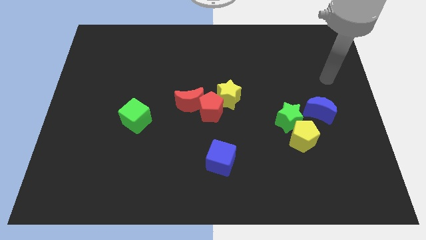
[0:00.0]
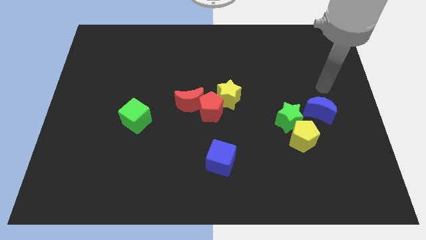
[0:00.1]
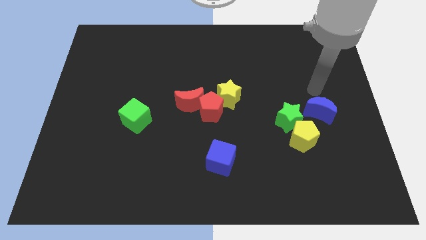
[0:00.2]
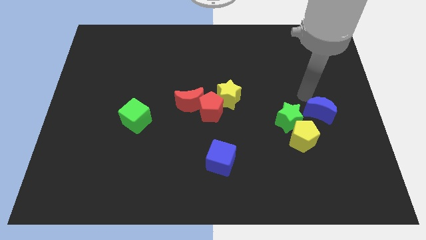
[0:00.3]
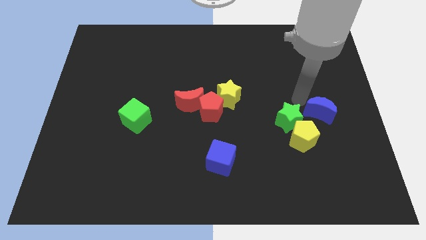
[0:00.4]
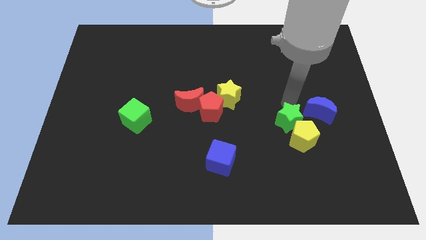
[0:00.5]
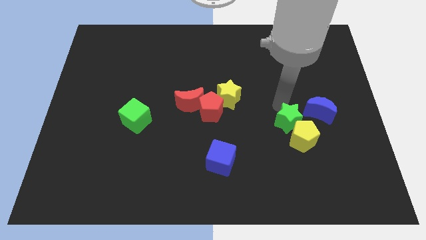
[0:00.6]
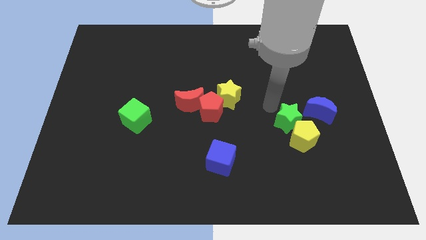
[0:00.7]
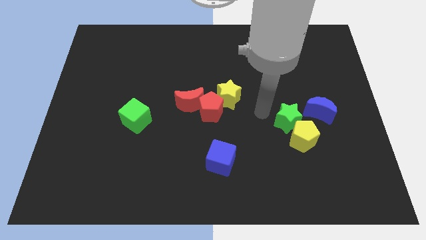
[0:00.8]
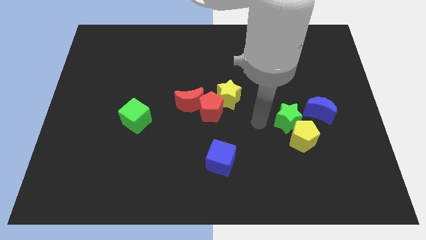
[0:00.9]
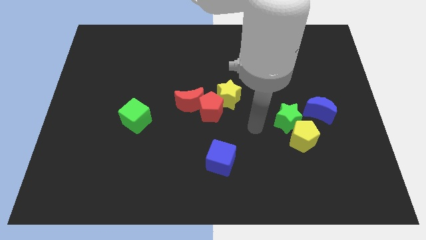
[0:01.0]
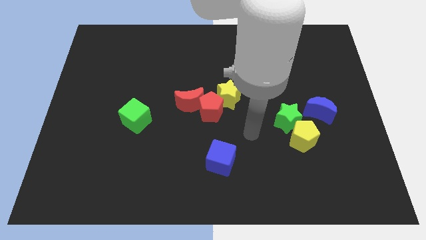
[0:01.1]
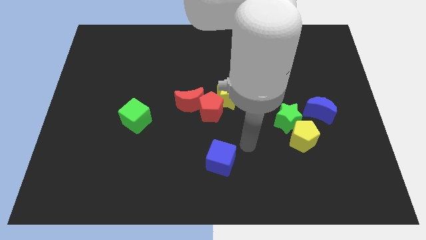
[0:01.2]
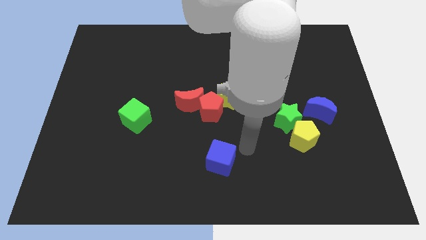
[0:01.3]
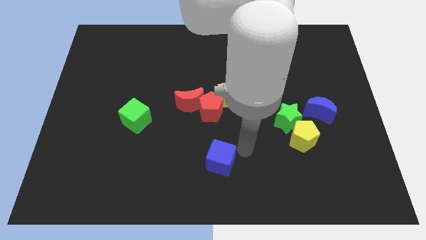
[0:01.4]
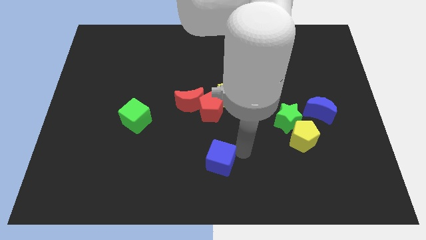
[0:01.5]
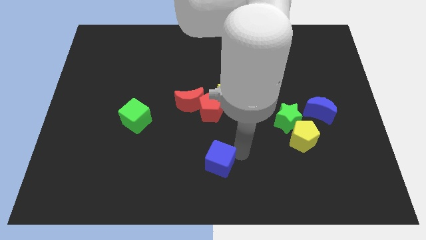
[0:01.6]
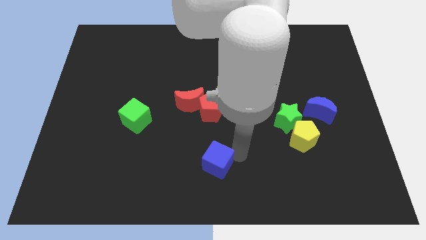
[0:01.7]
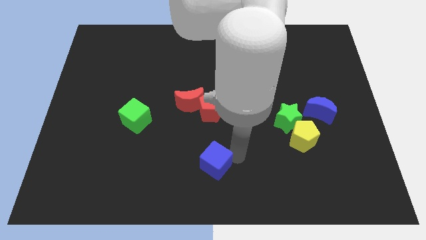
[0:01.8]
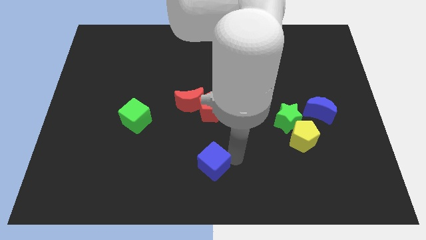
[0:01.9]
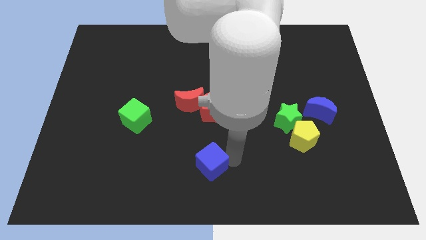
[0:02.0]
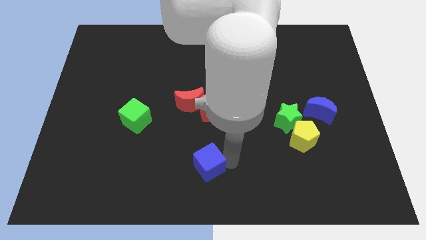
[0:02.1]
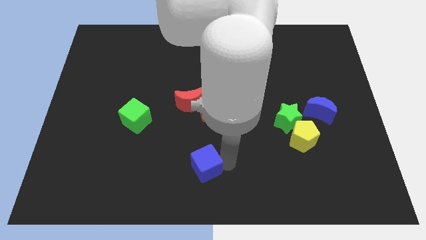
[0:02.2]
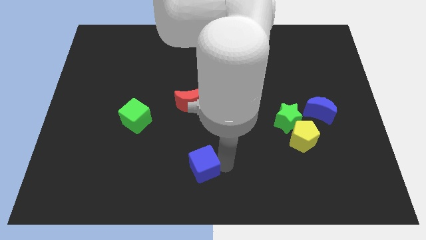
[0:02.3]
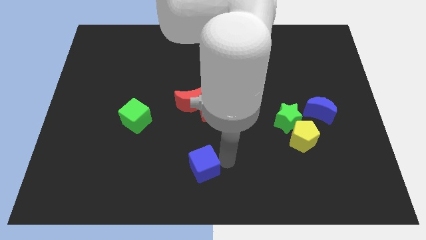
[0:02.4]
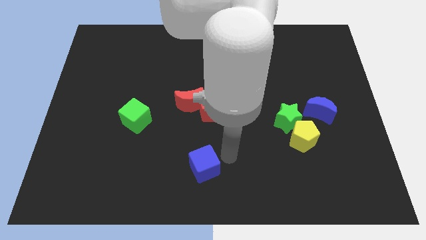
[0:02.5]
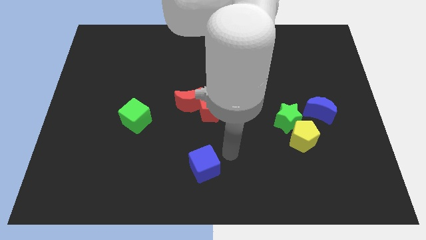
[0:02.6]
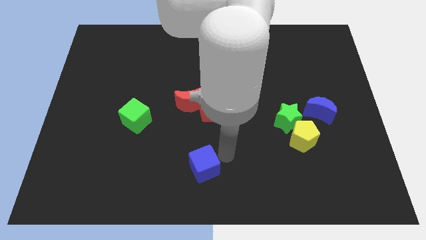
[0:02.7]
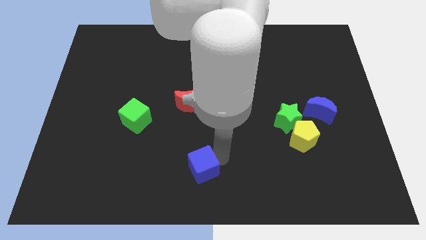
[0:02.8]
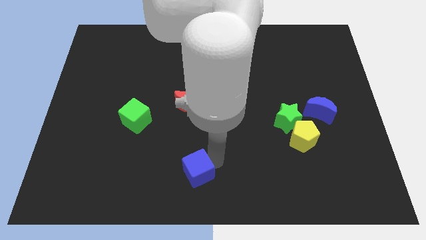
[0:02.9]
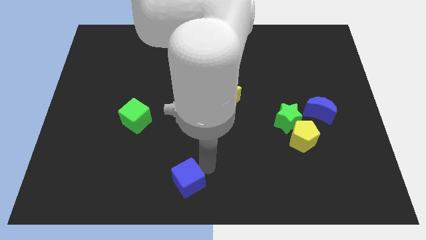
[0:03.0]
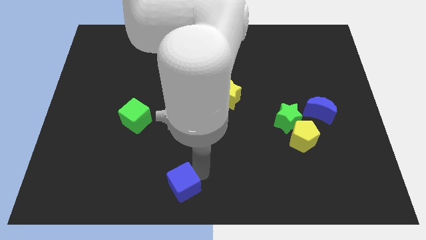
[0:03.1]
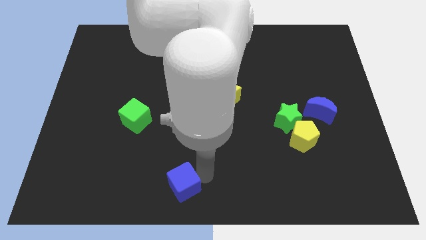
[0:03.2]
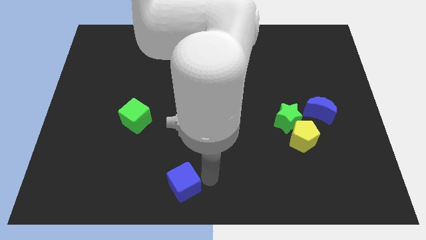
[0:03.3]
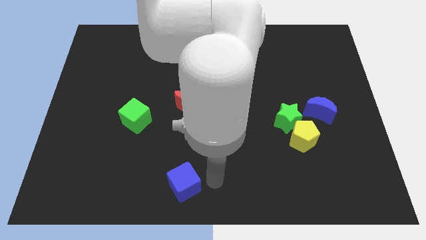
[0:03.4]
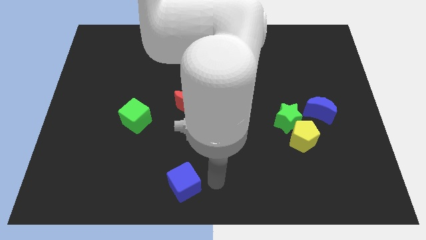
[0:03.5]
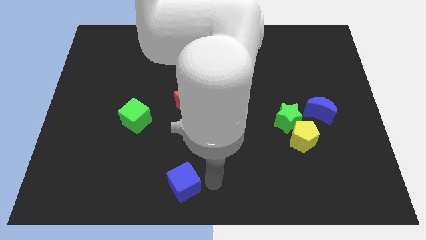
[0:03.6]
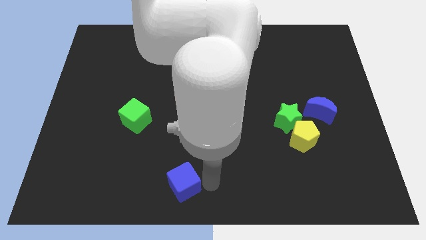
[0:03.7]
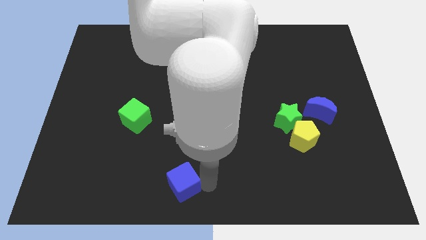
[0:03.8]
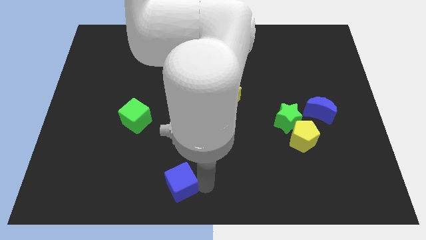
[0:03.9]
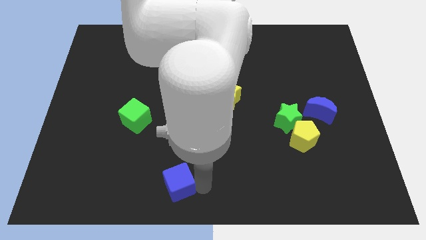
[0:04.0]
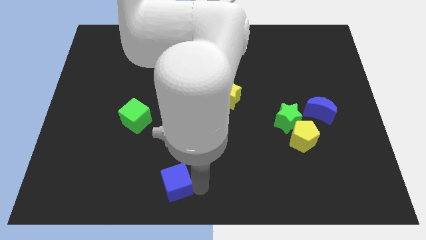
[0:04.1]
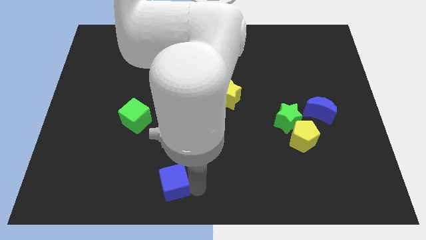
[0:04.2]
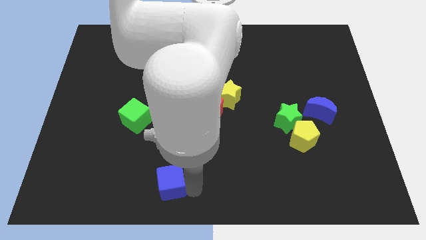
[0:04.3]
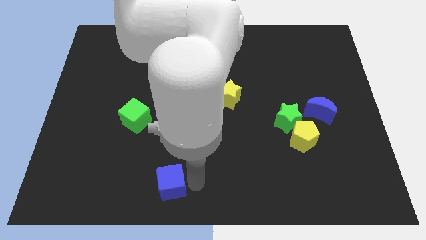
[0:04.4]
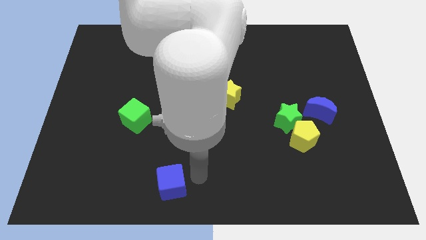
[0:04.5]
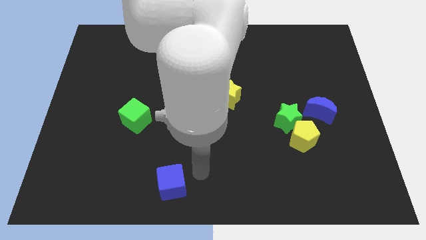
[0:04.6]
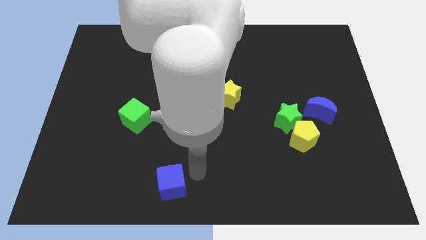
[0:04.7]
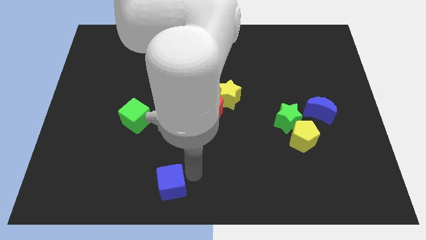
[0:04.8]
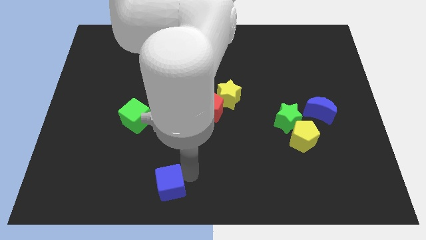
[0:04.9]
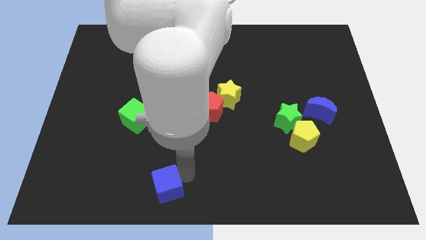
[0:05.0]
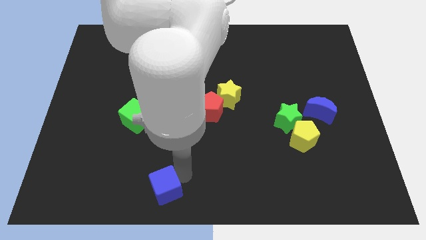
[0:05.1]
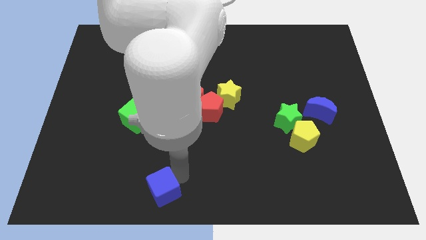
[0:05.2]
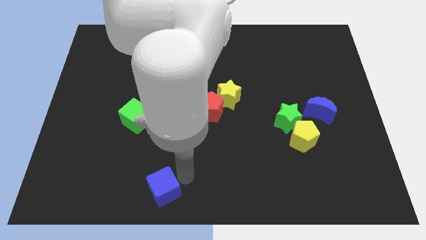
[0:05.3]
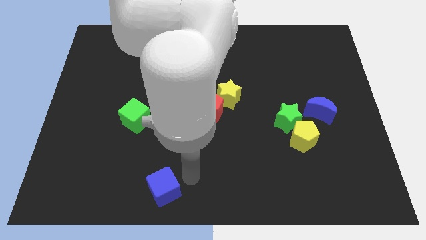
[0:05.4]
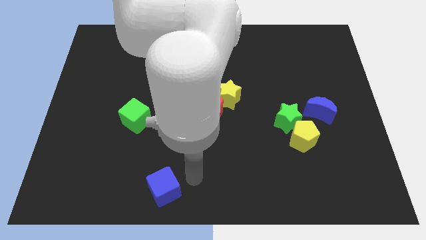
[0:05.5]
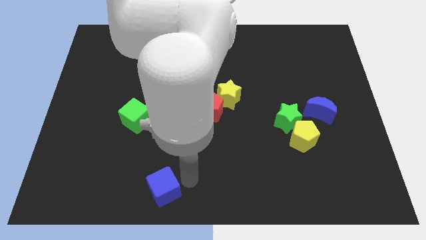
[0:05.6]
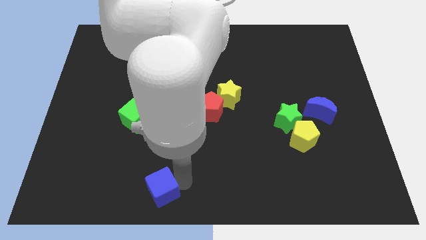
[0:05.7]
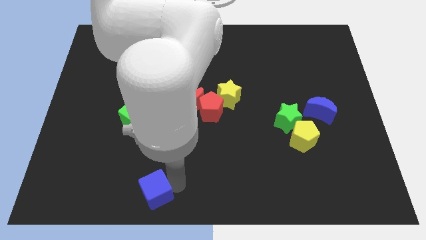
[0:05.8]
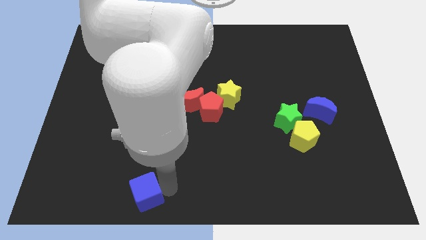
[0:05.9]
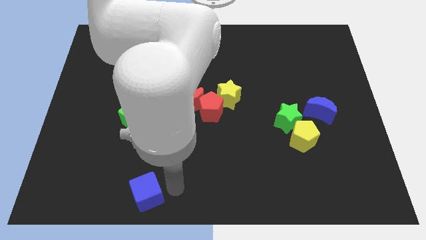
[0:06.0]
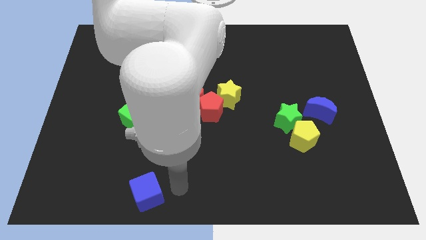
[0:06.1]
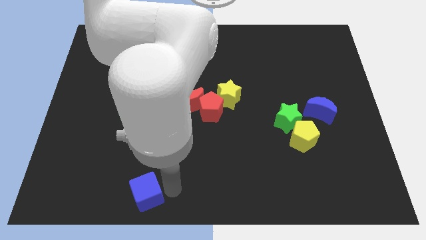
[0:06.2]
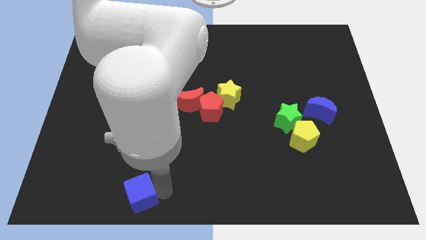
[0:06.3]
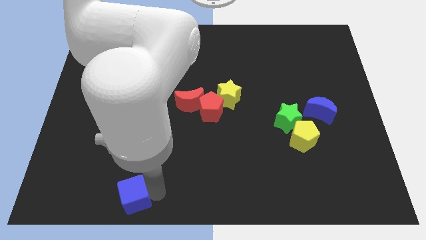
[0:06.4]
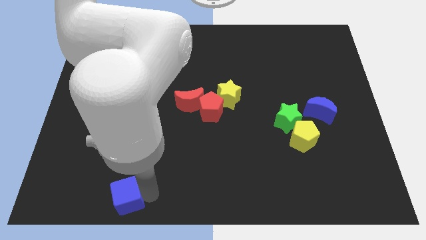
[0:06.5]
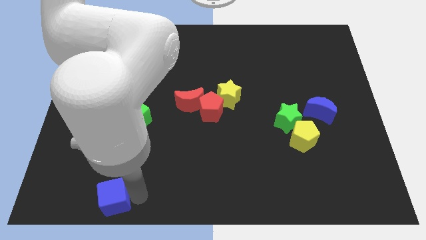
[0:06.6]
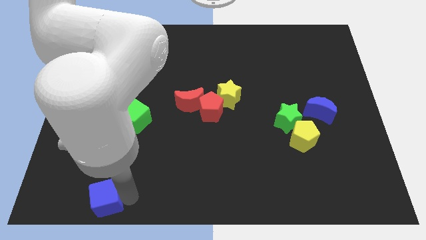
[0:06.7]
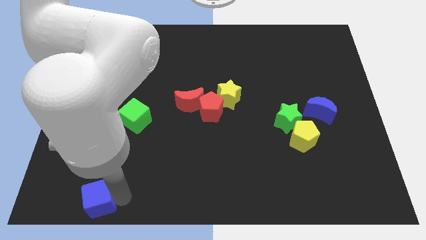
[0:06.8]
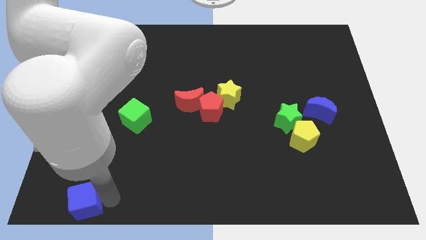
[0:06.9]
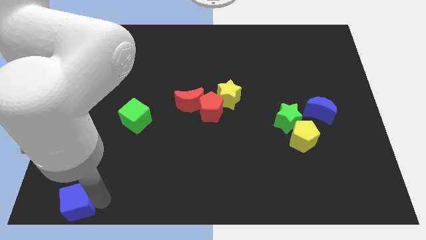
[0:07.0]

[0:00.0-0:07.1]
push the blue cube to the bottom left of the board
